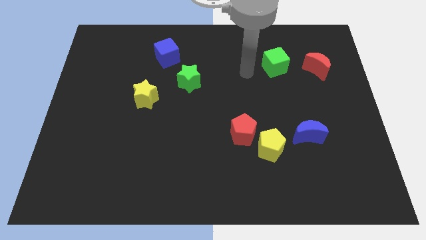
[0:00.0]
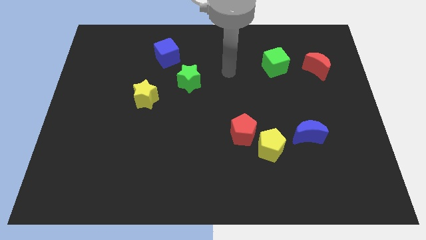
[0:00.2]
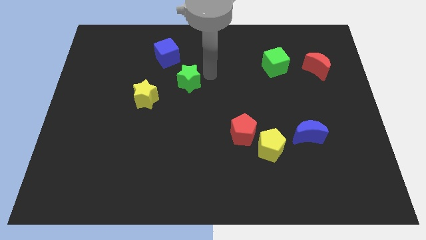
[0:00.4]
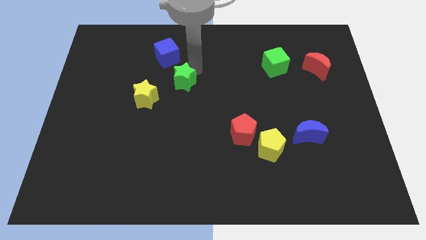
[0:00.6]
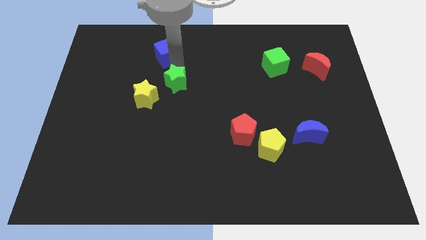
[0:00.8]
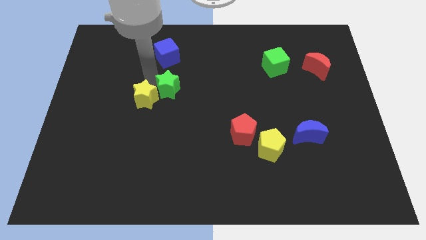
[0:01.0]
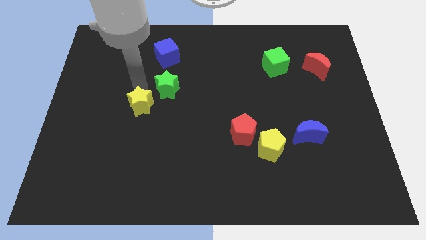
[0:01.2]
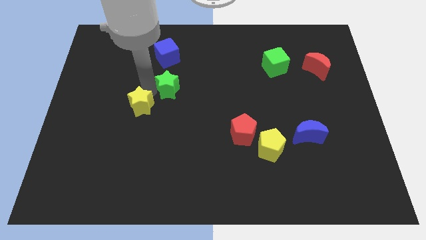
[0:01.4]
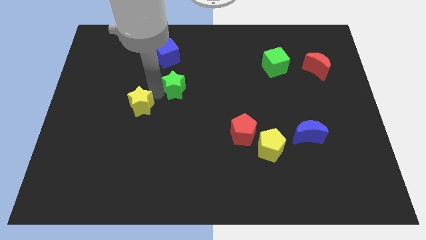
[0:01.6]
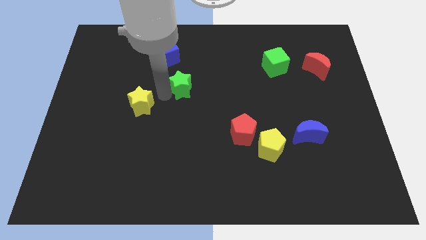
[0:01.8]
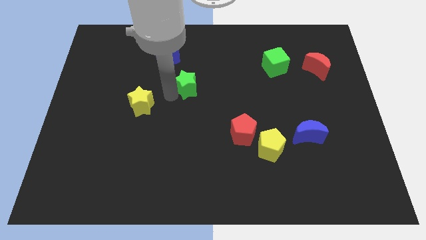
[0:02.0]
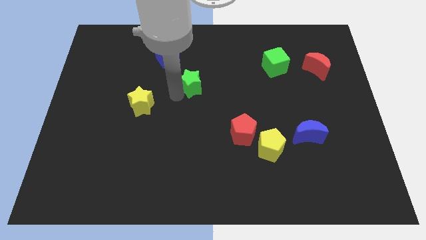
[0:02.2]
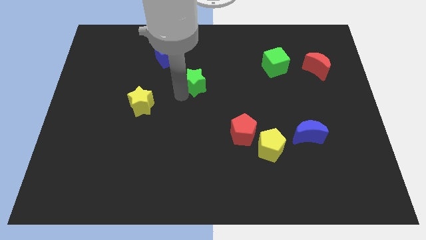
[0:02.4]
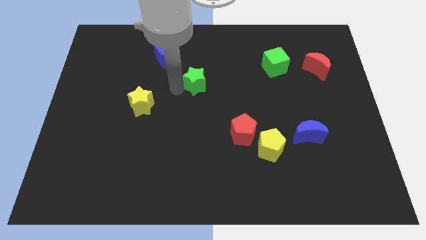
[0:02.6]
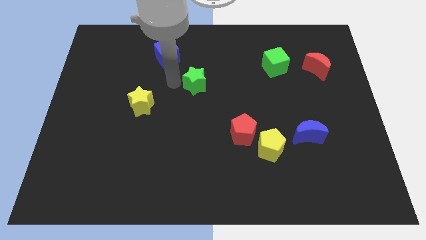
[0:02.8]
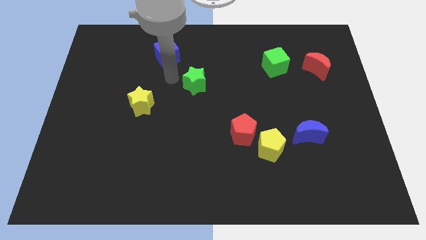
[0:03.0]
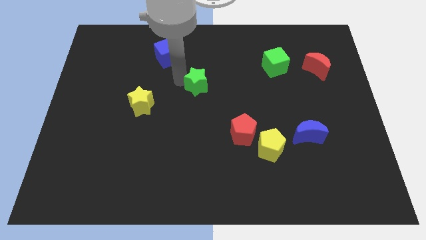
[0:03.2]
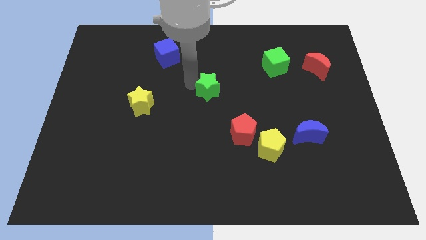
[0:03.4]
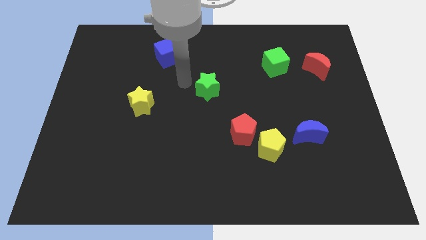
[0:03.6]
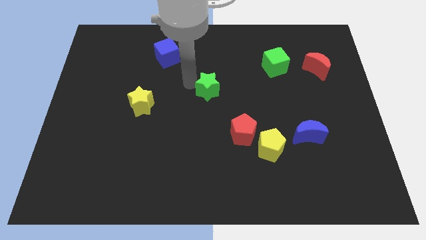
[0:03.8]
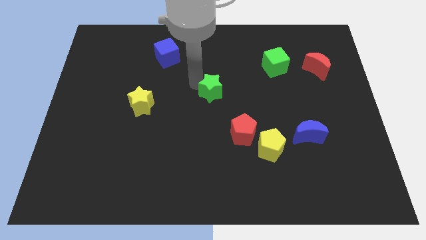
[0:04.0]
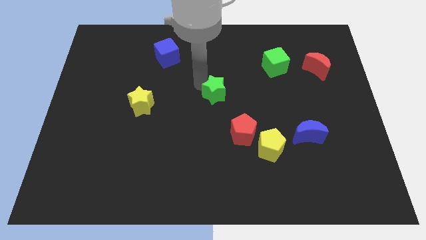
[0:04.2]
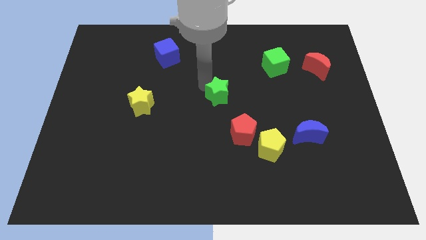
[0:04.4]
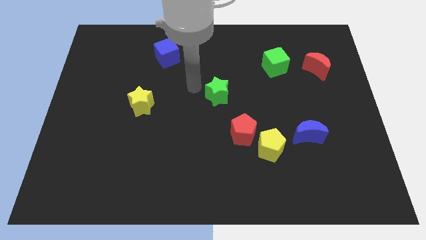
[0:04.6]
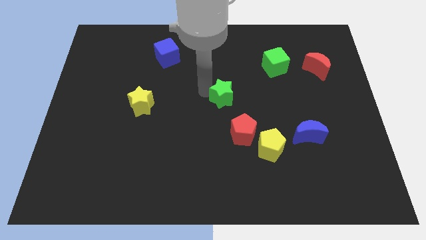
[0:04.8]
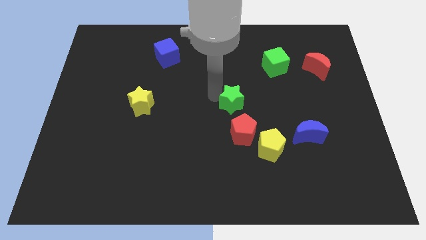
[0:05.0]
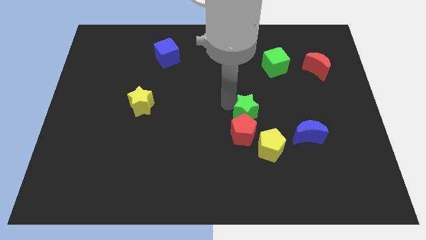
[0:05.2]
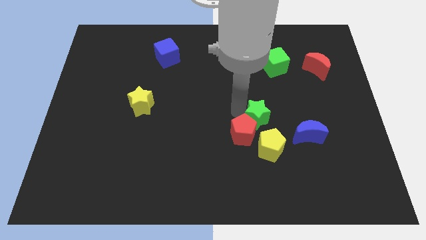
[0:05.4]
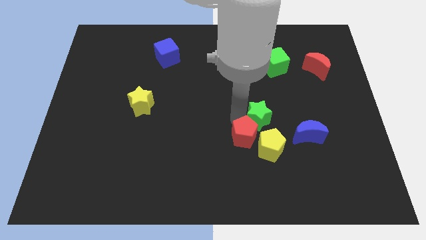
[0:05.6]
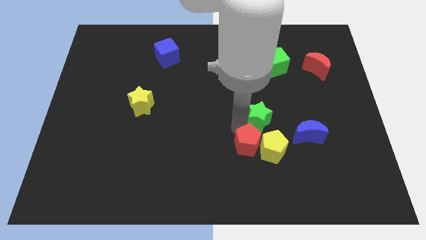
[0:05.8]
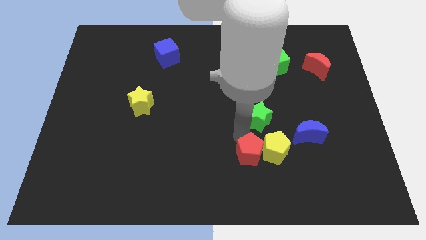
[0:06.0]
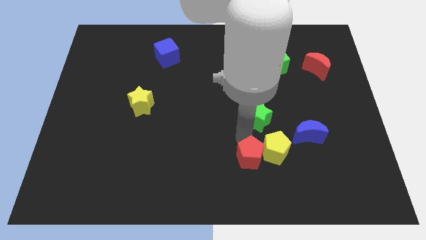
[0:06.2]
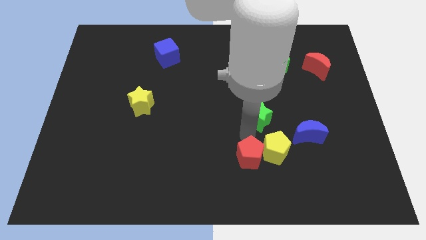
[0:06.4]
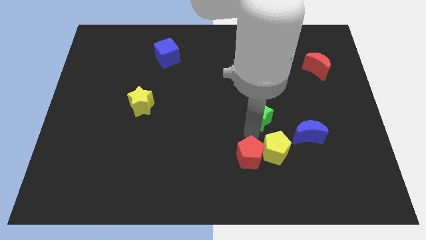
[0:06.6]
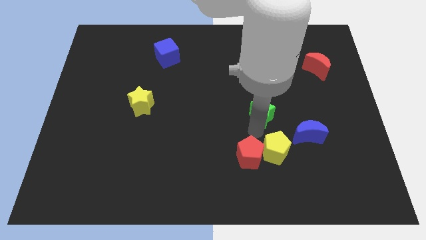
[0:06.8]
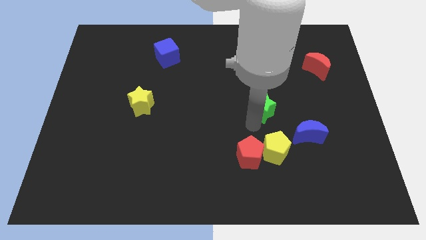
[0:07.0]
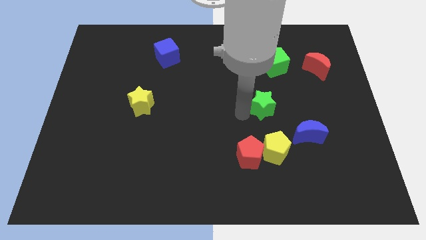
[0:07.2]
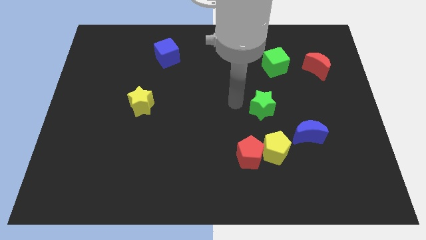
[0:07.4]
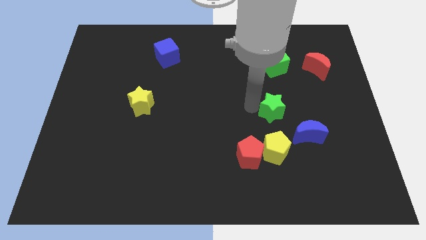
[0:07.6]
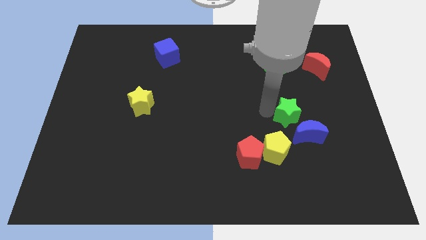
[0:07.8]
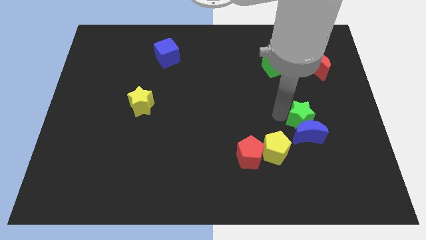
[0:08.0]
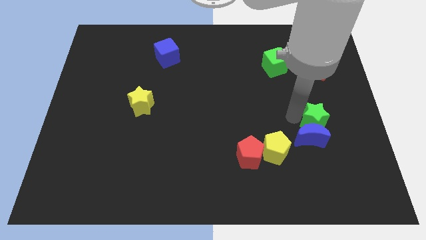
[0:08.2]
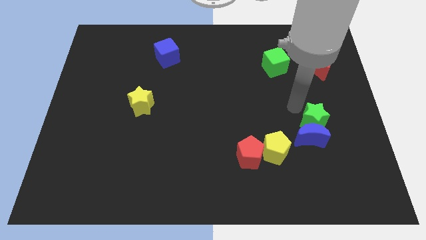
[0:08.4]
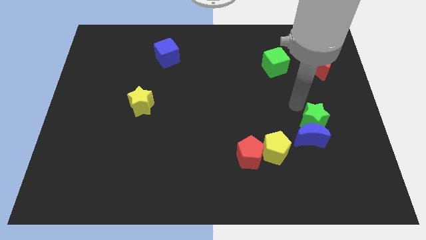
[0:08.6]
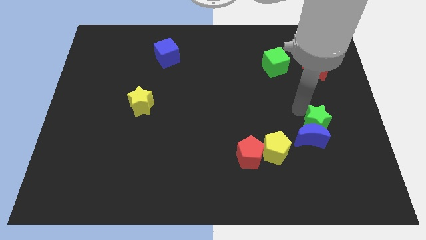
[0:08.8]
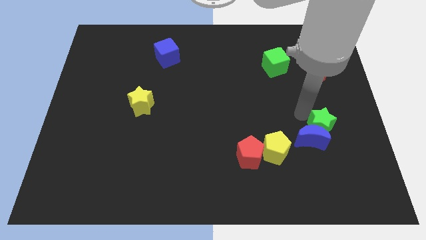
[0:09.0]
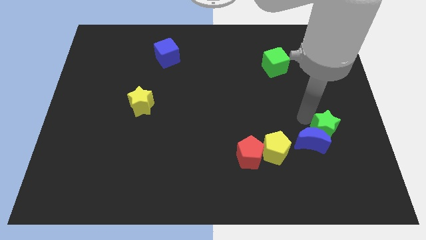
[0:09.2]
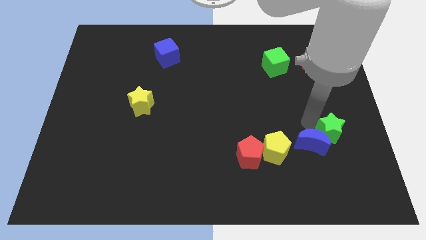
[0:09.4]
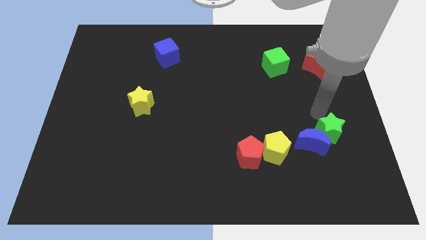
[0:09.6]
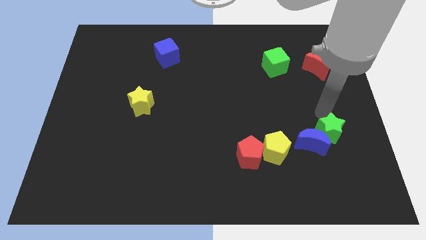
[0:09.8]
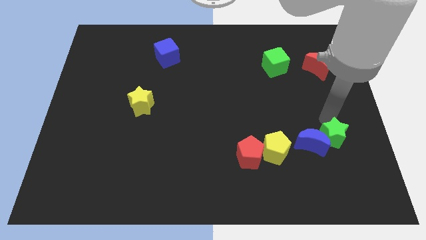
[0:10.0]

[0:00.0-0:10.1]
put the green star to the bottom right side of the blue moon

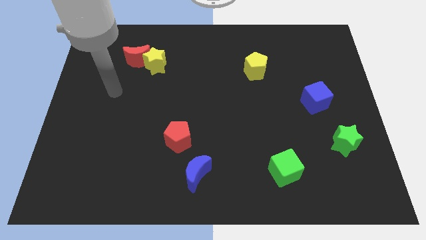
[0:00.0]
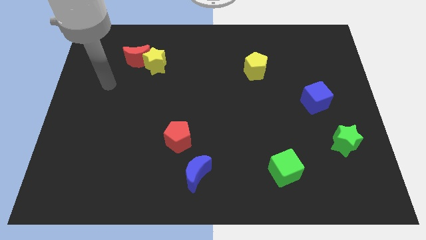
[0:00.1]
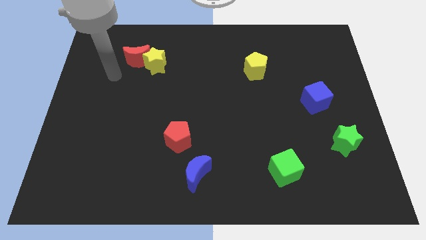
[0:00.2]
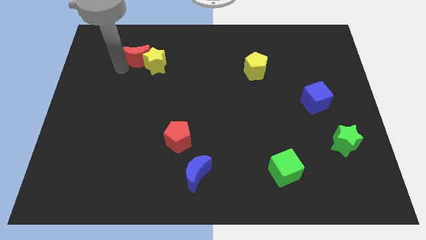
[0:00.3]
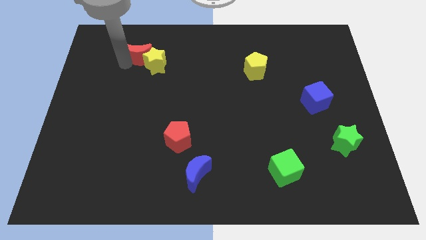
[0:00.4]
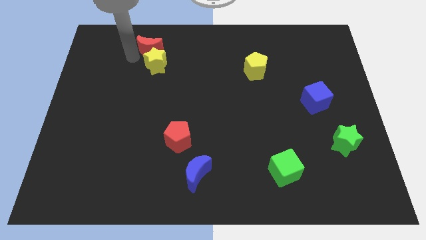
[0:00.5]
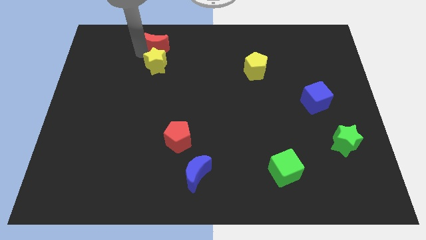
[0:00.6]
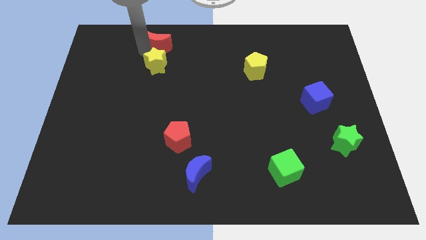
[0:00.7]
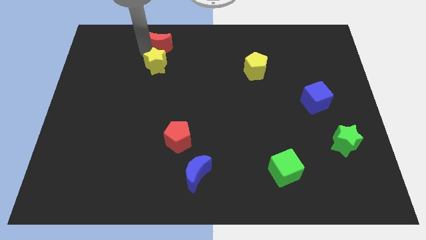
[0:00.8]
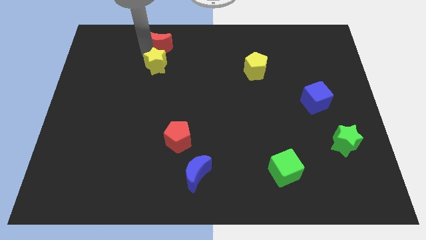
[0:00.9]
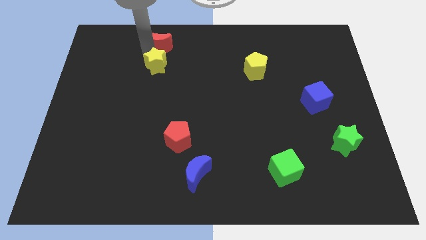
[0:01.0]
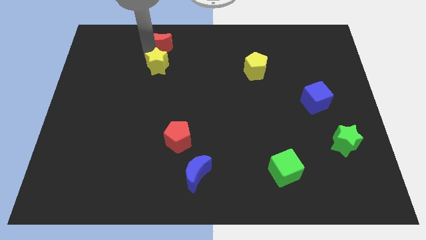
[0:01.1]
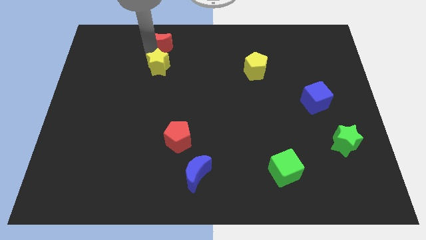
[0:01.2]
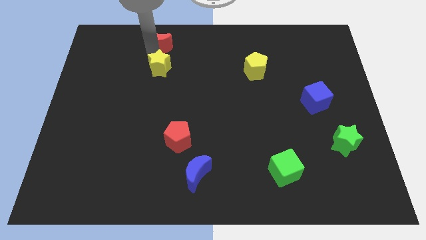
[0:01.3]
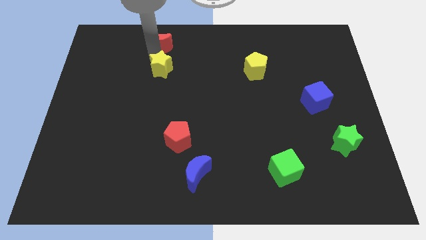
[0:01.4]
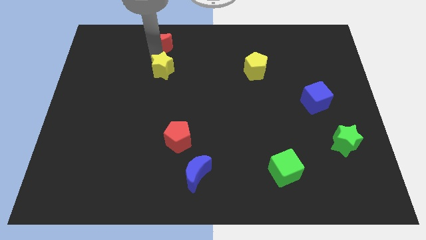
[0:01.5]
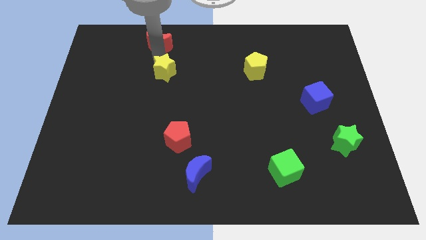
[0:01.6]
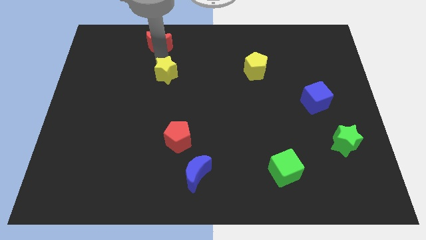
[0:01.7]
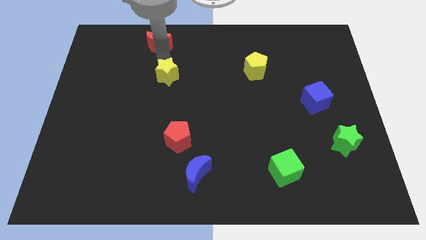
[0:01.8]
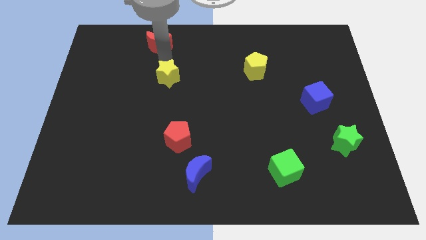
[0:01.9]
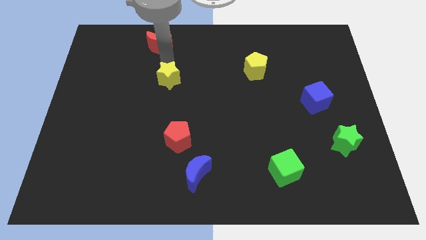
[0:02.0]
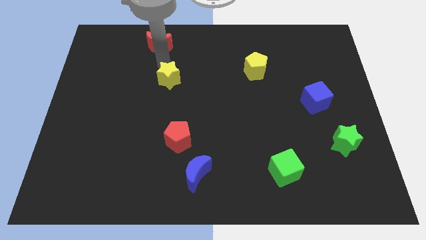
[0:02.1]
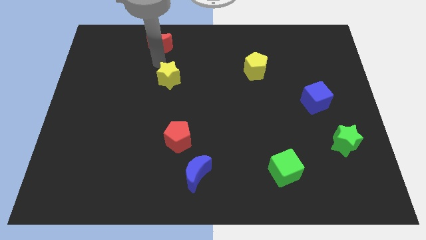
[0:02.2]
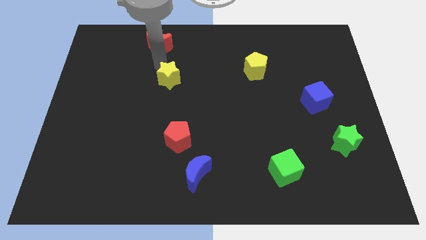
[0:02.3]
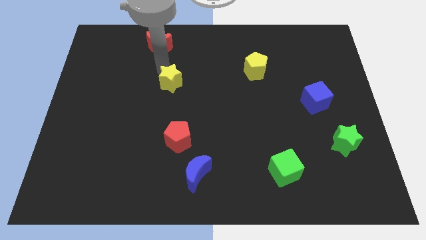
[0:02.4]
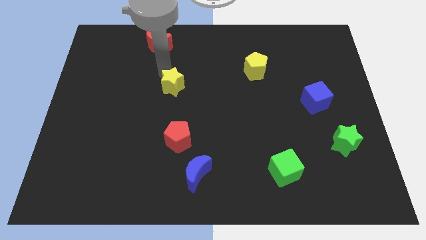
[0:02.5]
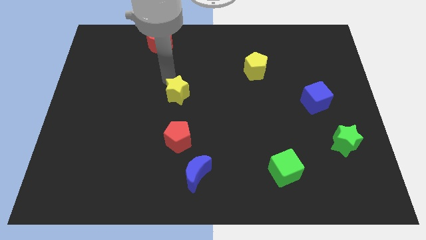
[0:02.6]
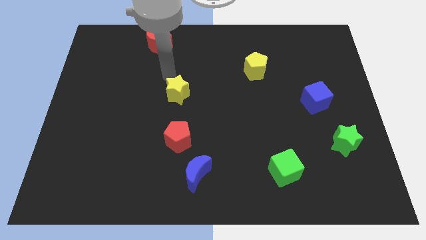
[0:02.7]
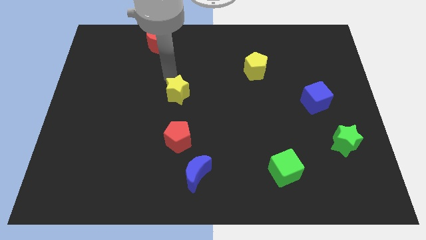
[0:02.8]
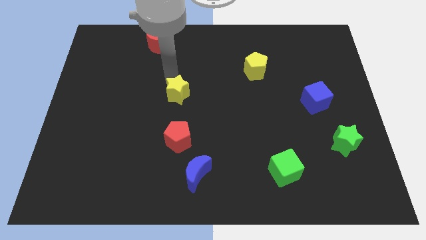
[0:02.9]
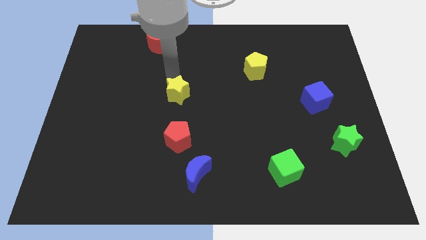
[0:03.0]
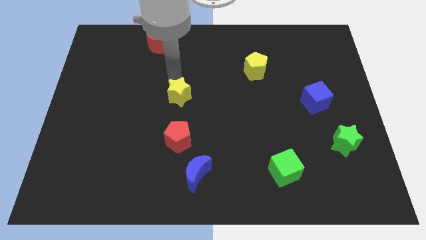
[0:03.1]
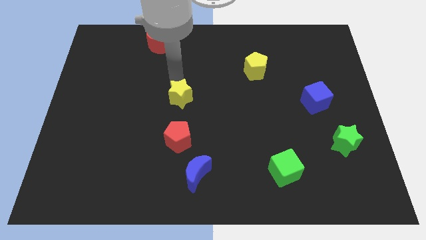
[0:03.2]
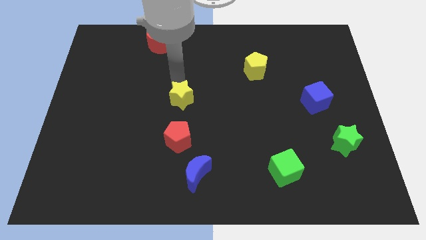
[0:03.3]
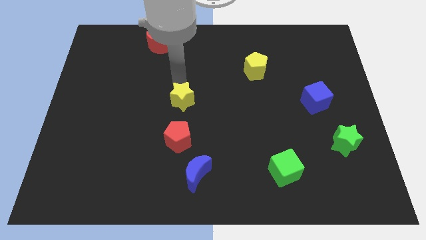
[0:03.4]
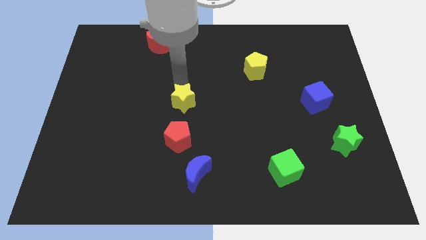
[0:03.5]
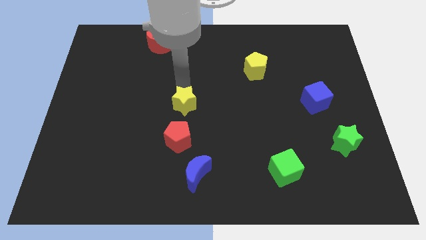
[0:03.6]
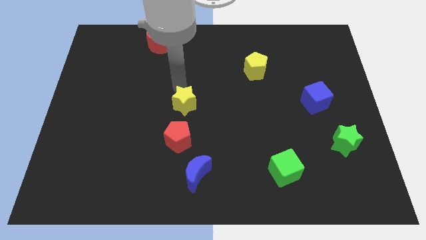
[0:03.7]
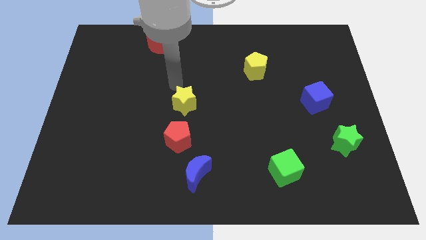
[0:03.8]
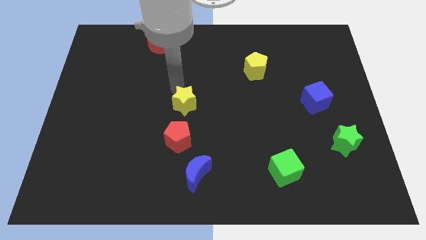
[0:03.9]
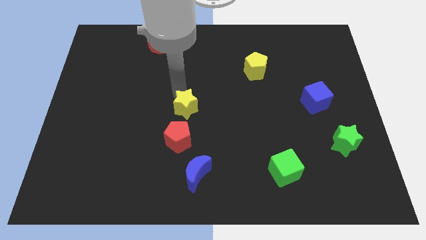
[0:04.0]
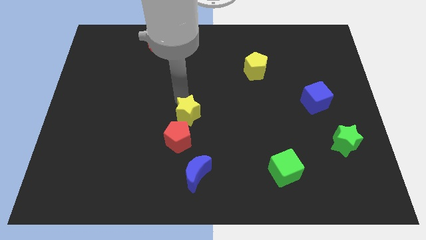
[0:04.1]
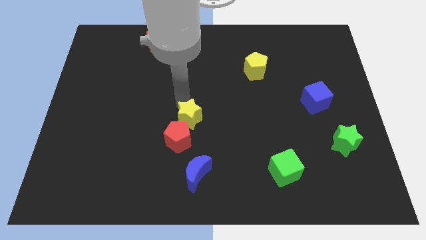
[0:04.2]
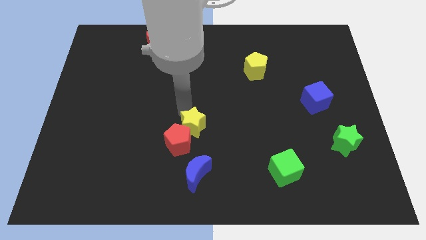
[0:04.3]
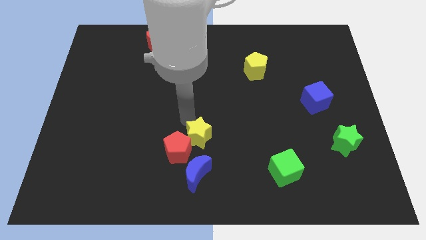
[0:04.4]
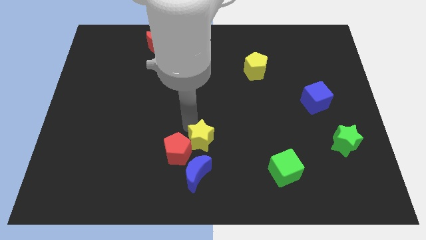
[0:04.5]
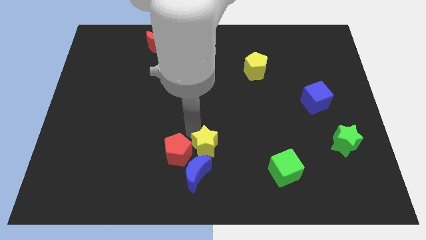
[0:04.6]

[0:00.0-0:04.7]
push the yellow star to the top right side of the blue moon
